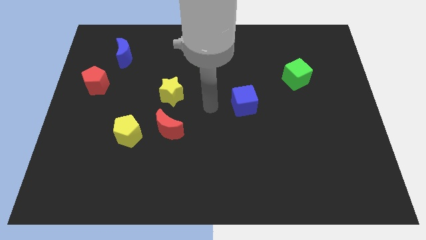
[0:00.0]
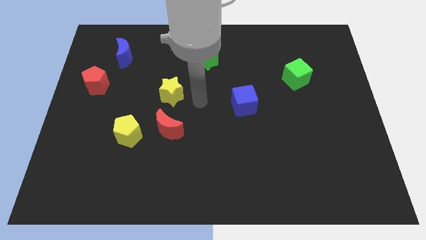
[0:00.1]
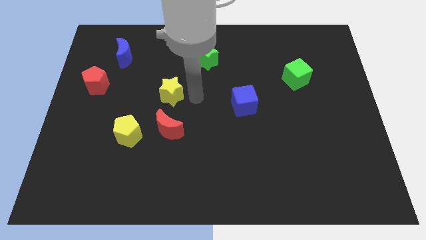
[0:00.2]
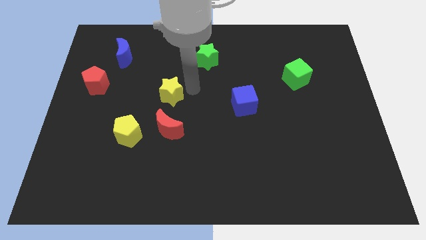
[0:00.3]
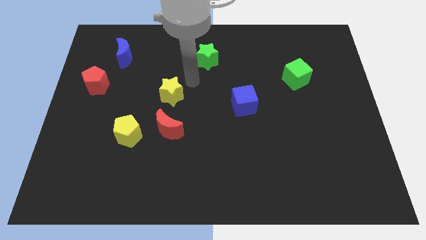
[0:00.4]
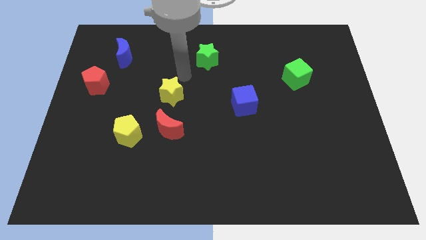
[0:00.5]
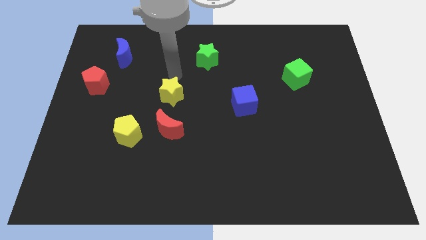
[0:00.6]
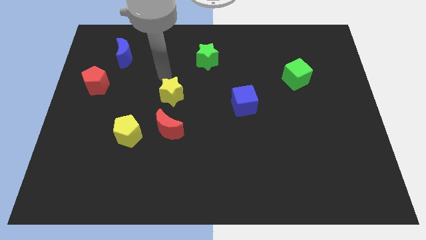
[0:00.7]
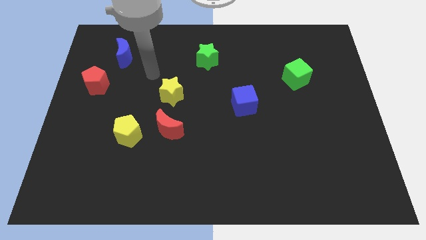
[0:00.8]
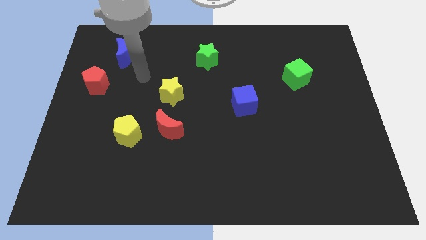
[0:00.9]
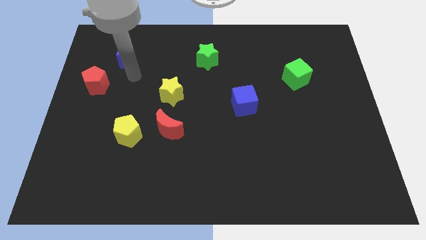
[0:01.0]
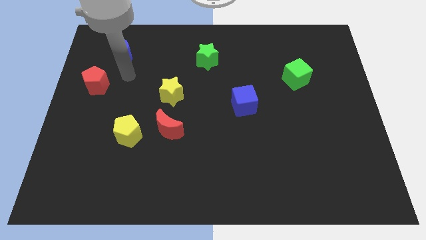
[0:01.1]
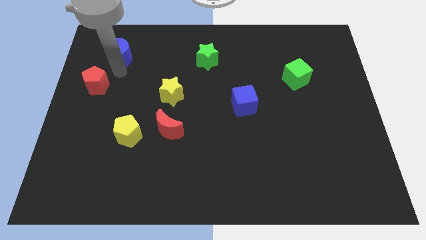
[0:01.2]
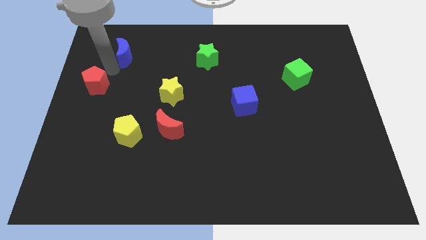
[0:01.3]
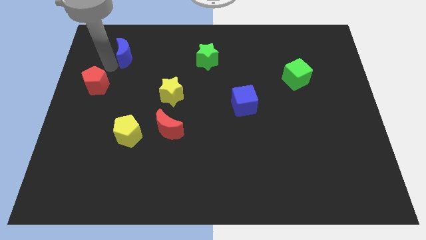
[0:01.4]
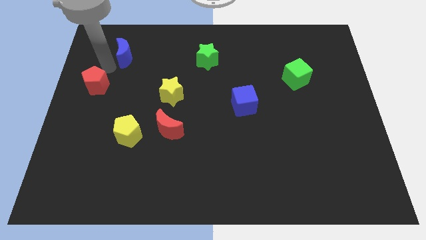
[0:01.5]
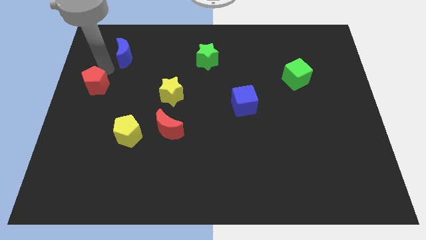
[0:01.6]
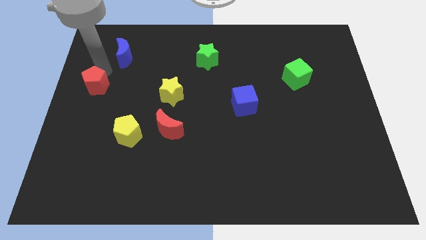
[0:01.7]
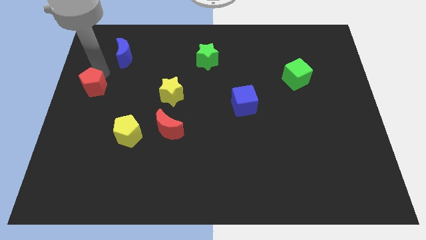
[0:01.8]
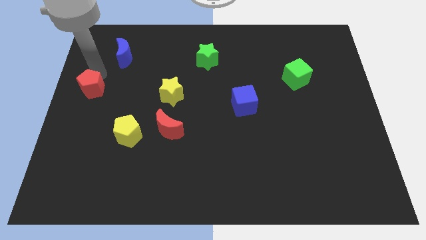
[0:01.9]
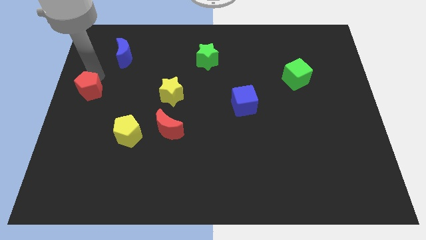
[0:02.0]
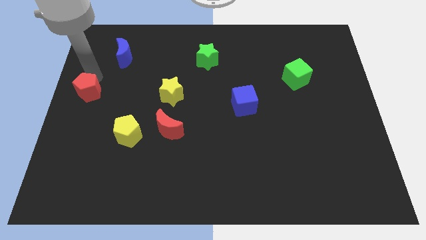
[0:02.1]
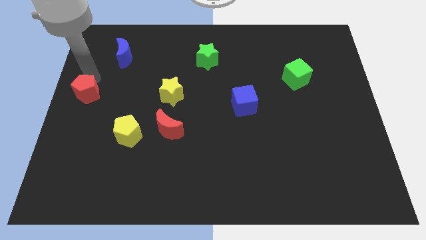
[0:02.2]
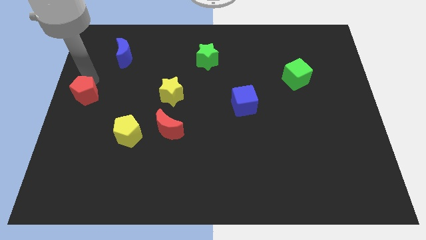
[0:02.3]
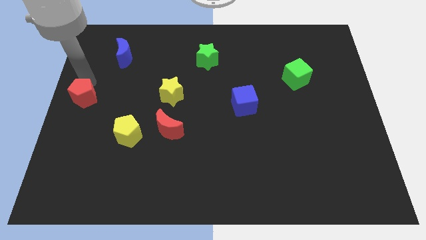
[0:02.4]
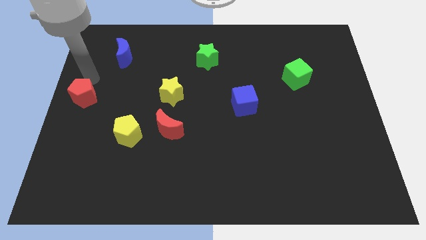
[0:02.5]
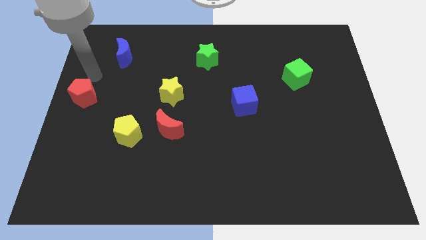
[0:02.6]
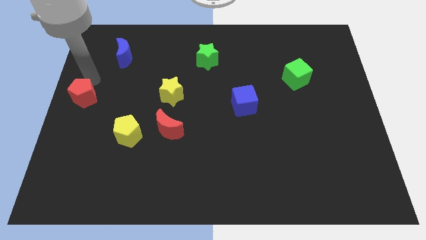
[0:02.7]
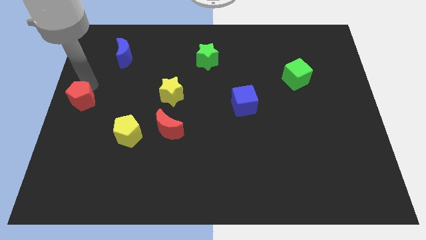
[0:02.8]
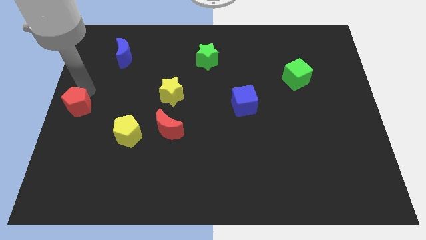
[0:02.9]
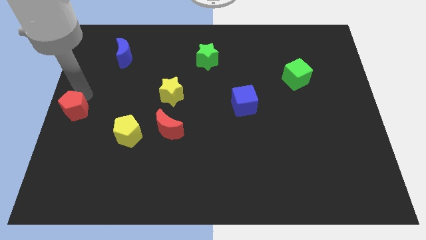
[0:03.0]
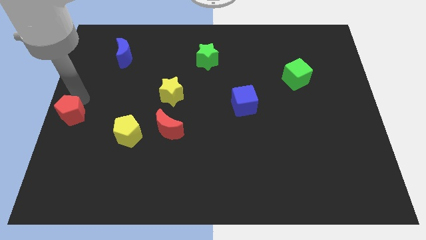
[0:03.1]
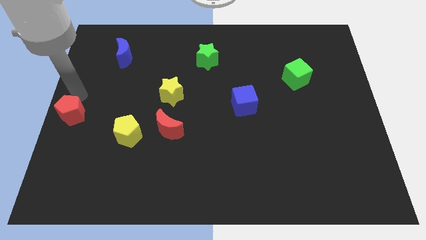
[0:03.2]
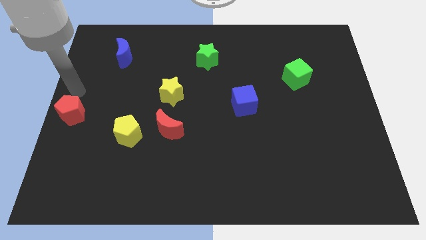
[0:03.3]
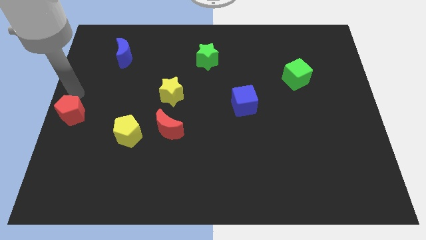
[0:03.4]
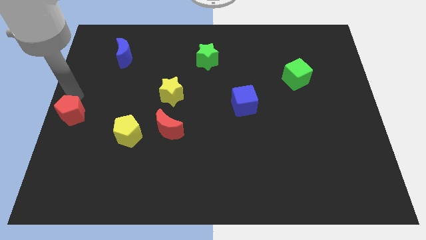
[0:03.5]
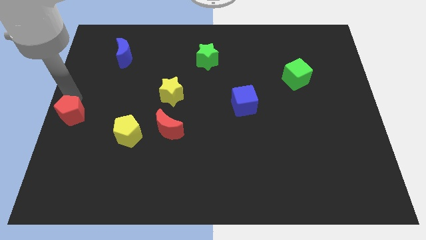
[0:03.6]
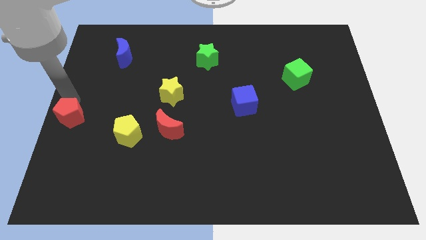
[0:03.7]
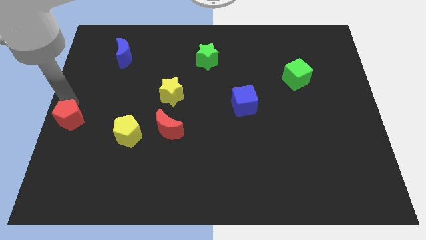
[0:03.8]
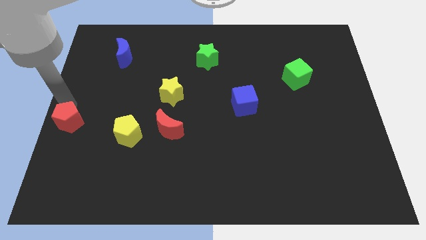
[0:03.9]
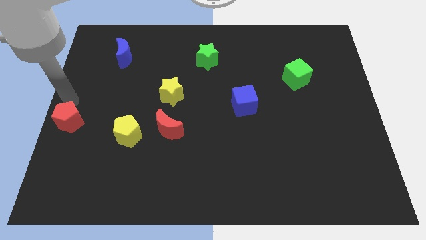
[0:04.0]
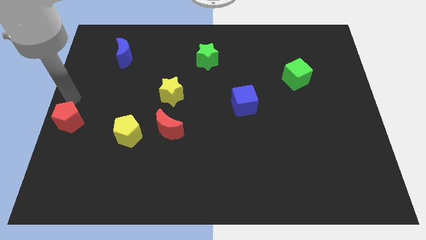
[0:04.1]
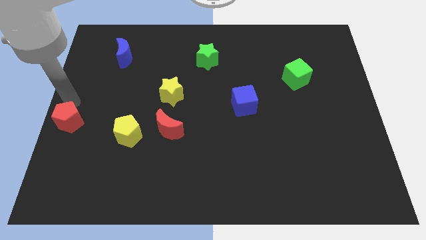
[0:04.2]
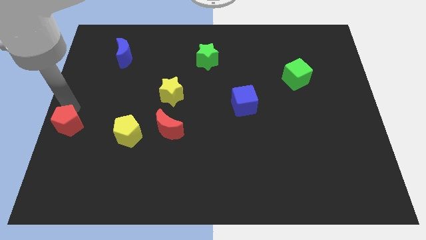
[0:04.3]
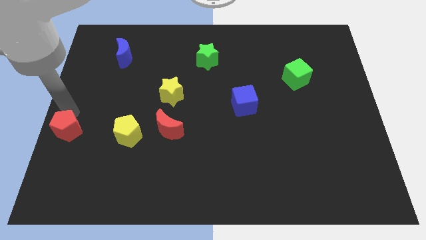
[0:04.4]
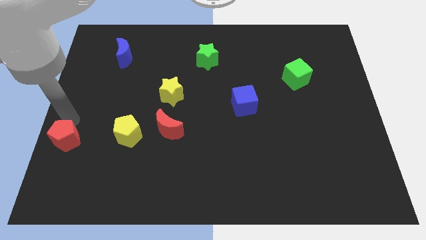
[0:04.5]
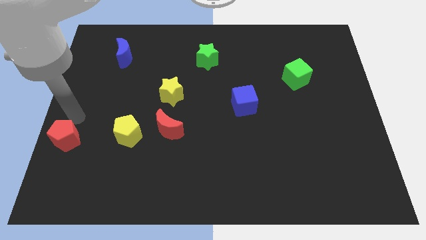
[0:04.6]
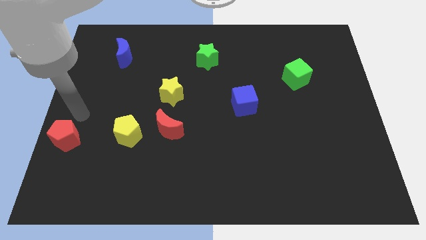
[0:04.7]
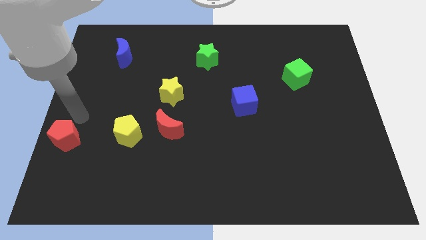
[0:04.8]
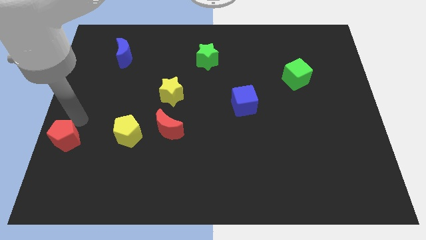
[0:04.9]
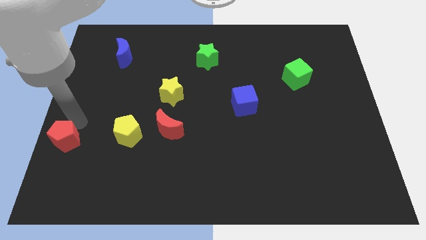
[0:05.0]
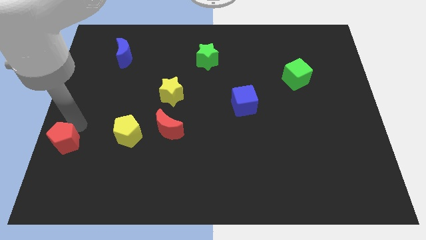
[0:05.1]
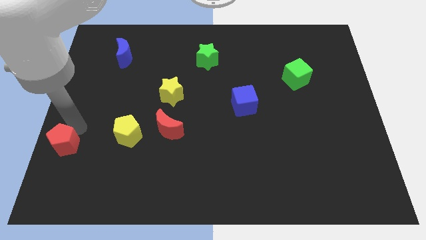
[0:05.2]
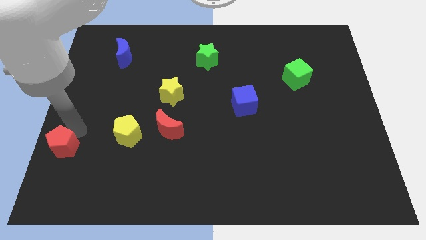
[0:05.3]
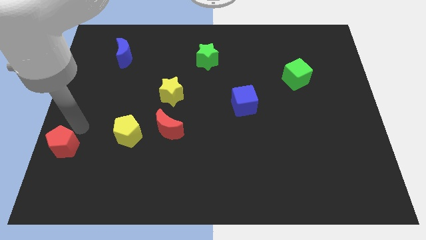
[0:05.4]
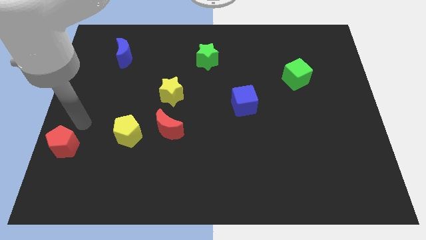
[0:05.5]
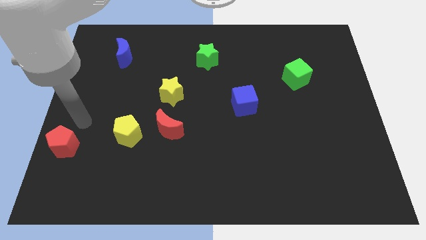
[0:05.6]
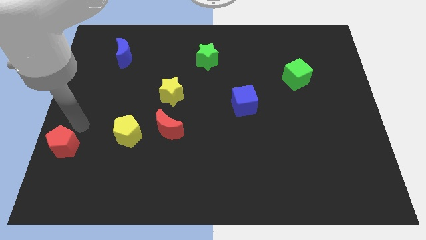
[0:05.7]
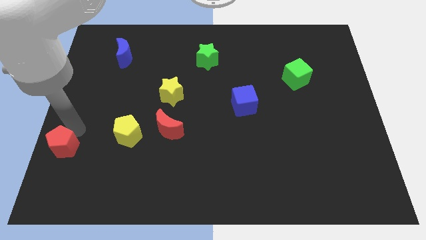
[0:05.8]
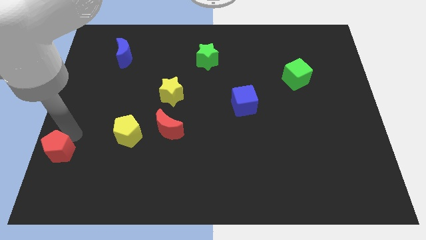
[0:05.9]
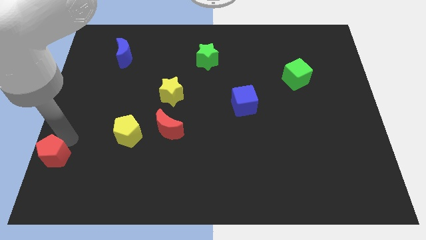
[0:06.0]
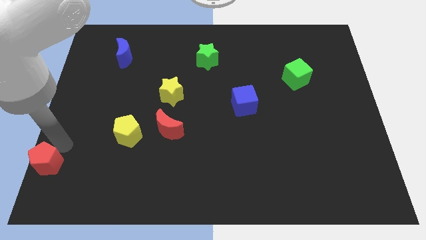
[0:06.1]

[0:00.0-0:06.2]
move the red pentagon to the bottom left of the board

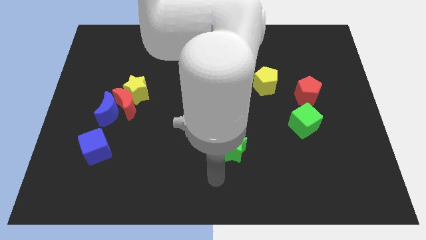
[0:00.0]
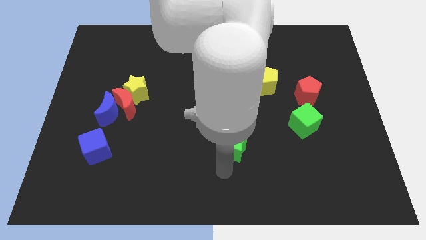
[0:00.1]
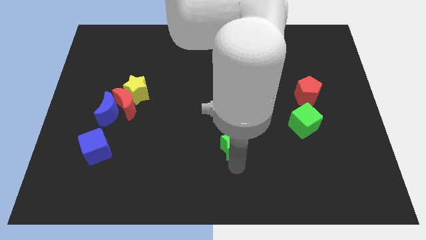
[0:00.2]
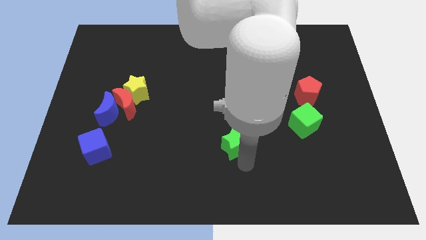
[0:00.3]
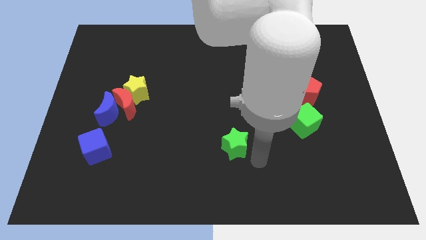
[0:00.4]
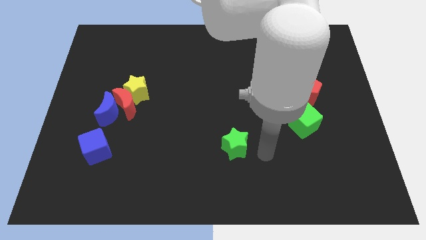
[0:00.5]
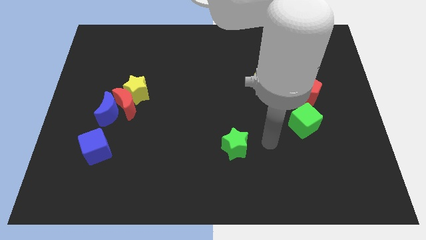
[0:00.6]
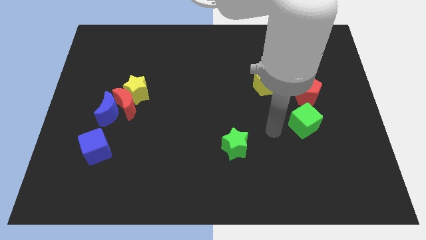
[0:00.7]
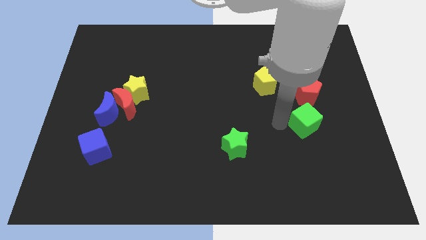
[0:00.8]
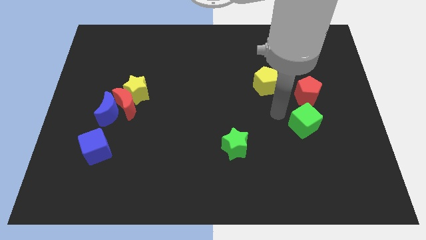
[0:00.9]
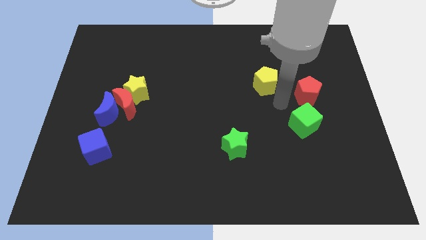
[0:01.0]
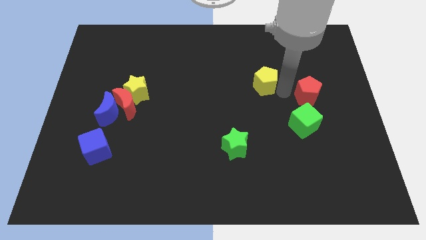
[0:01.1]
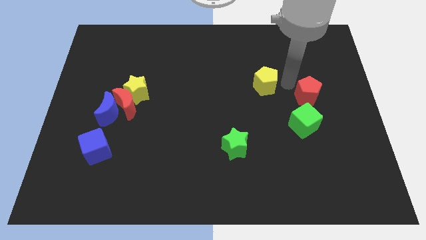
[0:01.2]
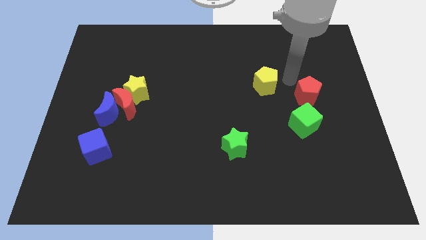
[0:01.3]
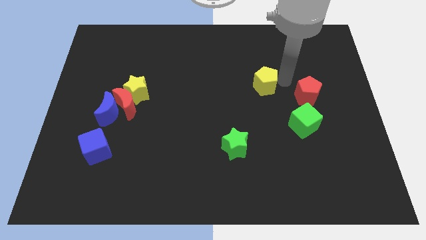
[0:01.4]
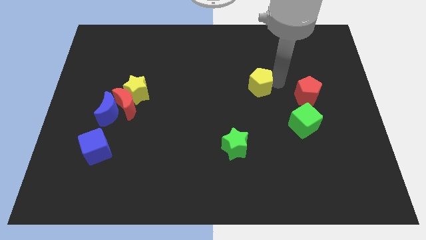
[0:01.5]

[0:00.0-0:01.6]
push the yellow pentagon to the middle of the board

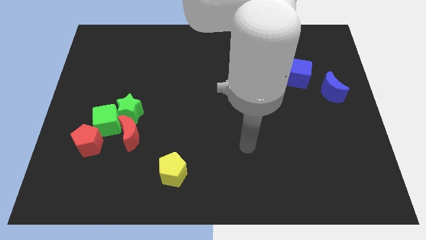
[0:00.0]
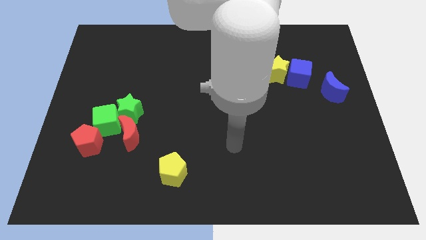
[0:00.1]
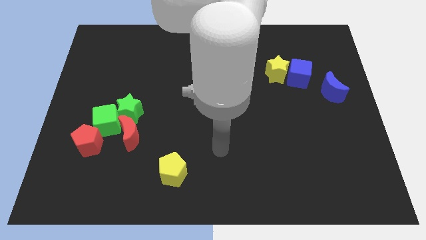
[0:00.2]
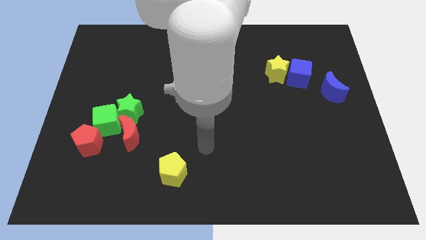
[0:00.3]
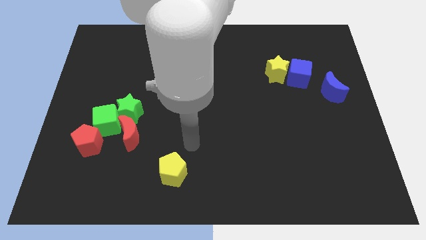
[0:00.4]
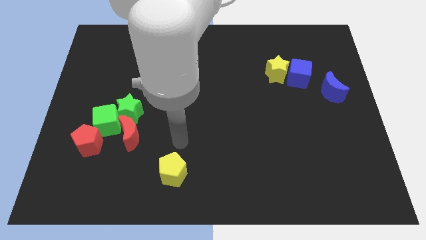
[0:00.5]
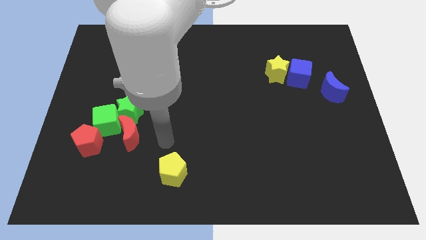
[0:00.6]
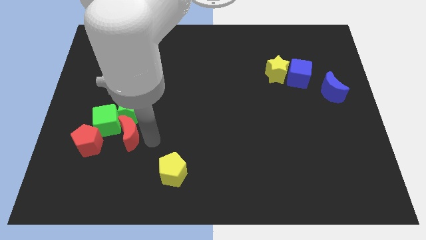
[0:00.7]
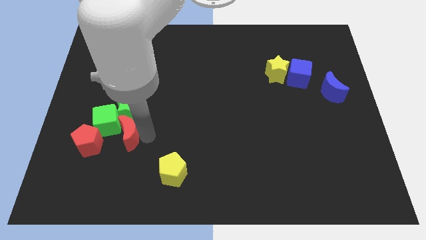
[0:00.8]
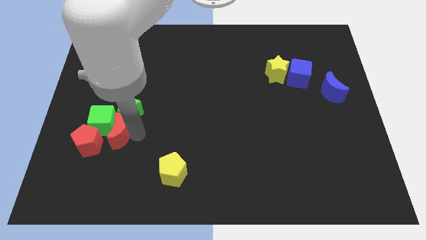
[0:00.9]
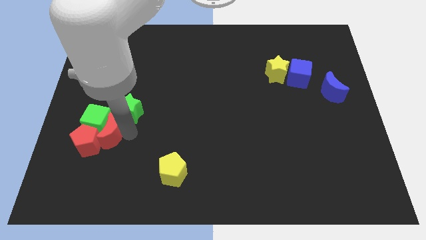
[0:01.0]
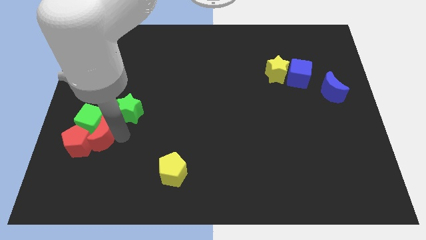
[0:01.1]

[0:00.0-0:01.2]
slide the green cube to the center left
